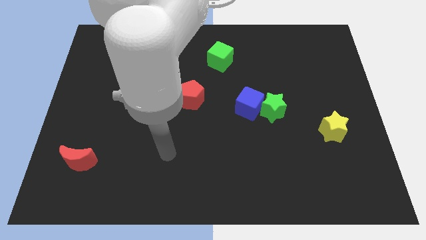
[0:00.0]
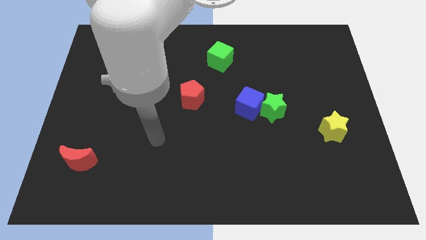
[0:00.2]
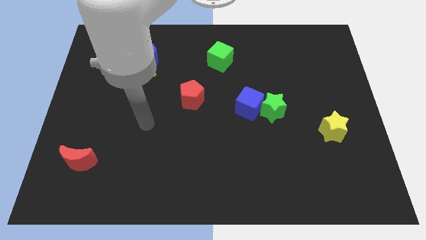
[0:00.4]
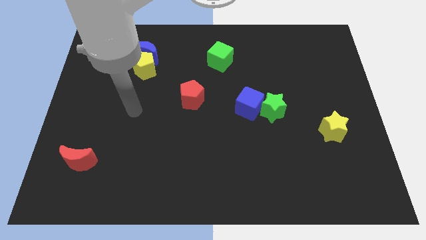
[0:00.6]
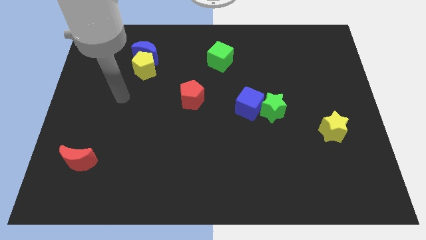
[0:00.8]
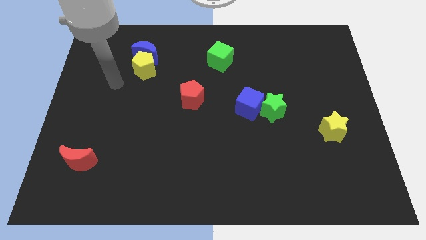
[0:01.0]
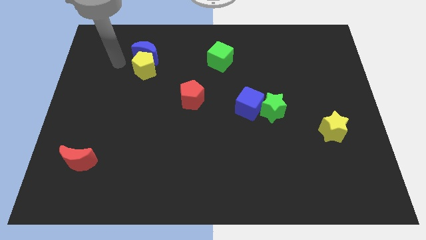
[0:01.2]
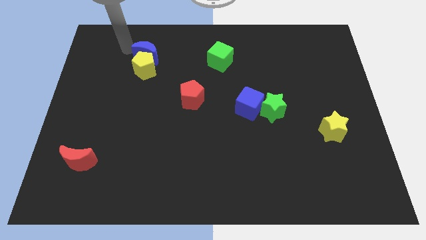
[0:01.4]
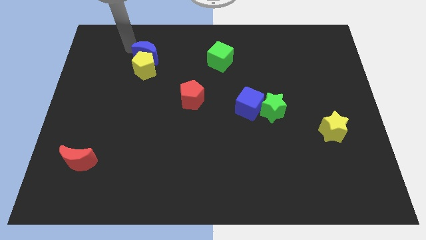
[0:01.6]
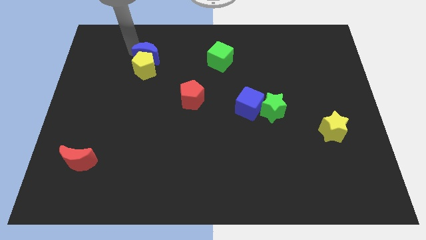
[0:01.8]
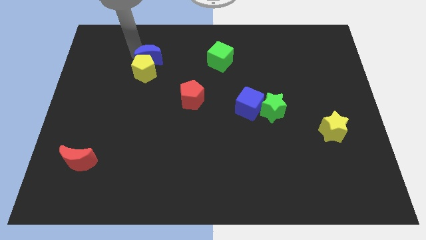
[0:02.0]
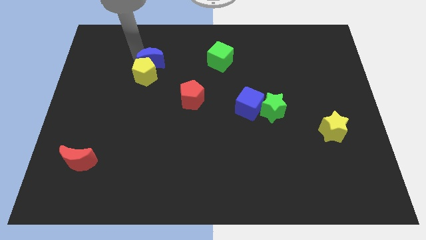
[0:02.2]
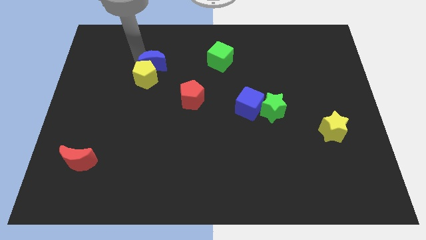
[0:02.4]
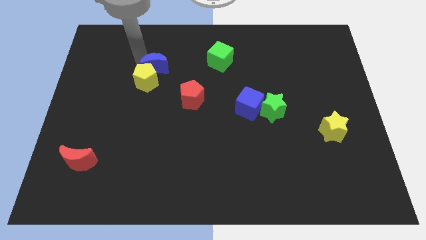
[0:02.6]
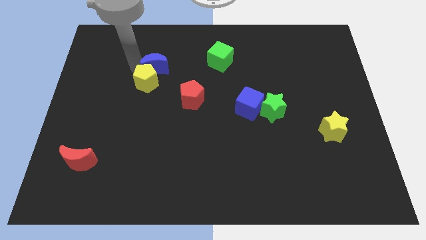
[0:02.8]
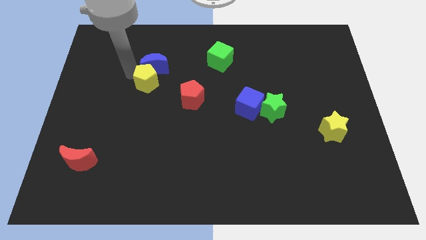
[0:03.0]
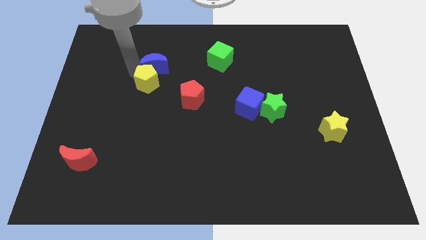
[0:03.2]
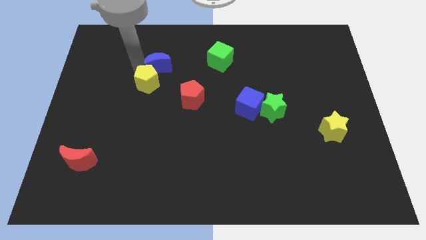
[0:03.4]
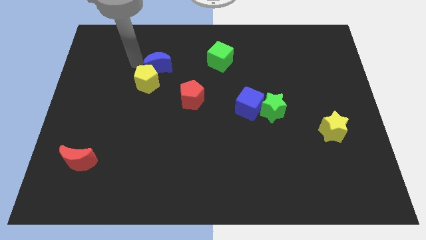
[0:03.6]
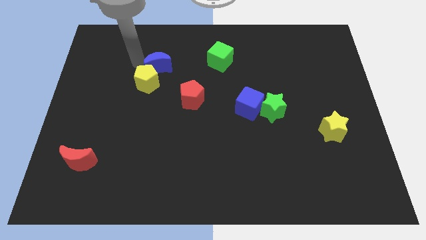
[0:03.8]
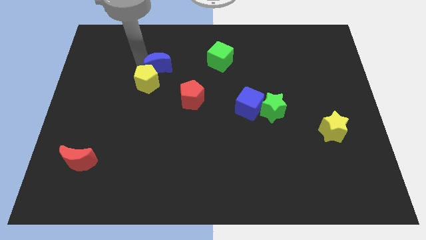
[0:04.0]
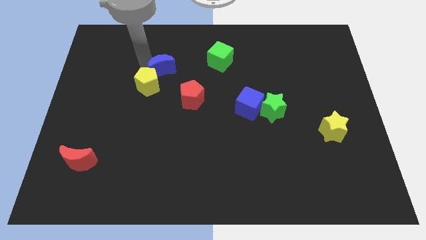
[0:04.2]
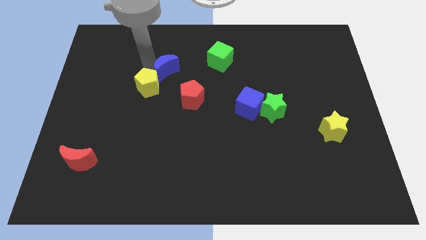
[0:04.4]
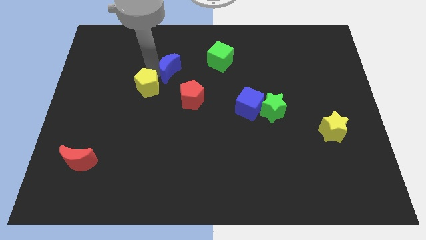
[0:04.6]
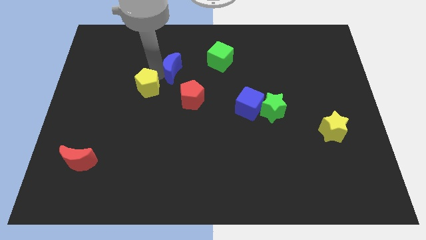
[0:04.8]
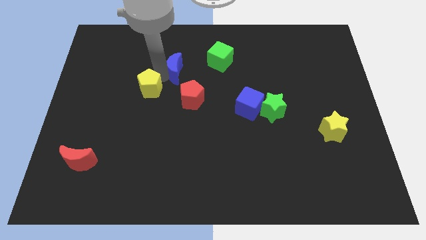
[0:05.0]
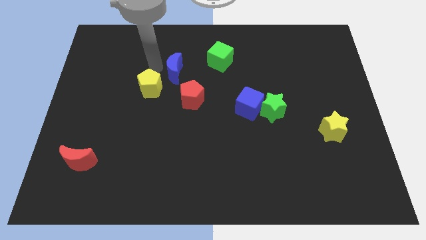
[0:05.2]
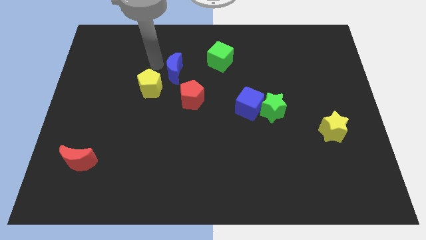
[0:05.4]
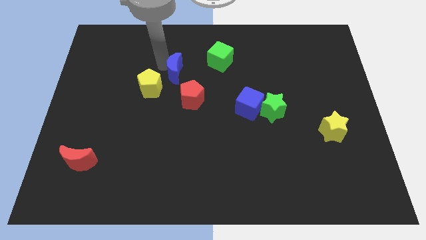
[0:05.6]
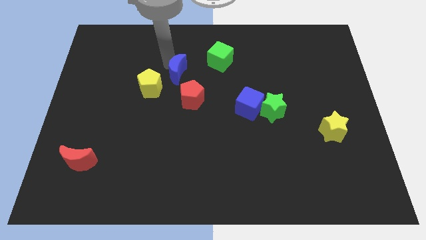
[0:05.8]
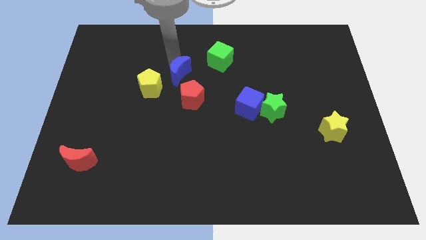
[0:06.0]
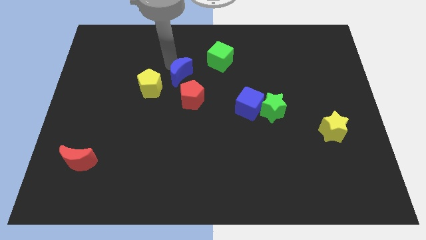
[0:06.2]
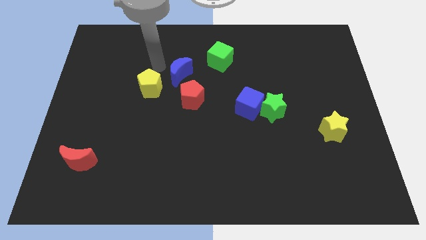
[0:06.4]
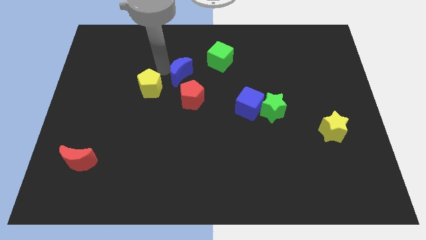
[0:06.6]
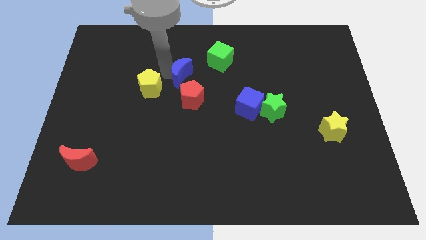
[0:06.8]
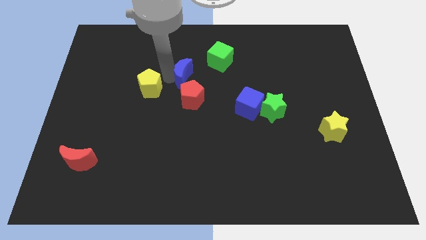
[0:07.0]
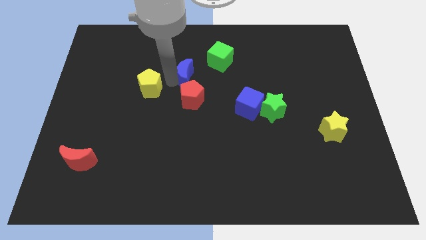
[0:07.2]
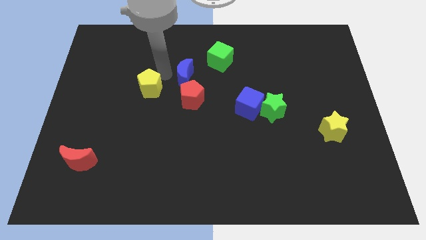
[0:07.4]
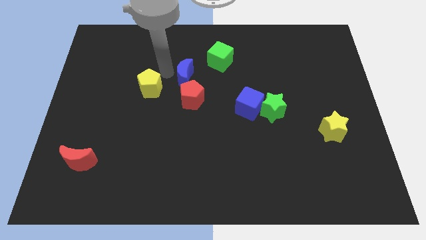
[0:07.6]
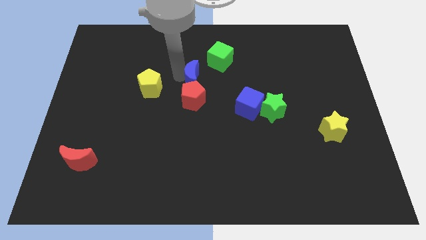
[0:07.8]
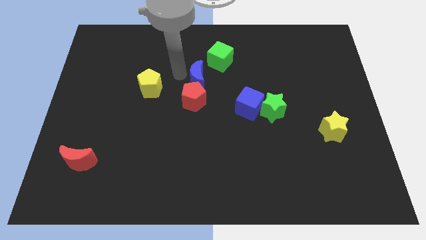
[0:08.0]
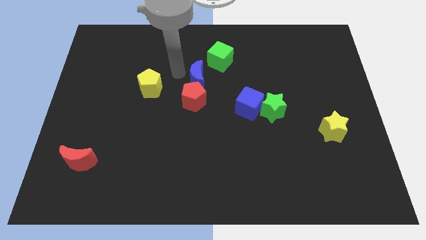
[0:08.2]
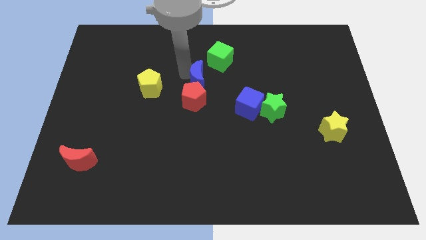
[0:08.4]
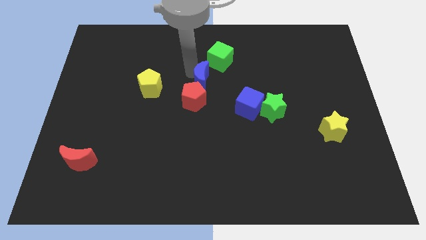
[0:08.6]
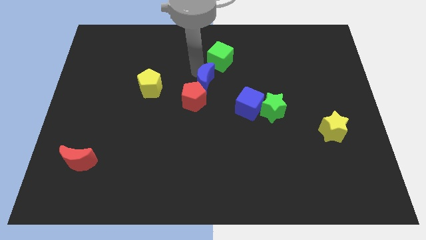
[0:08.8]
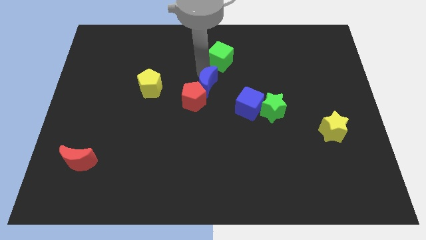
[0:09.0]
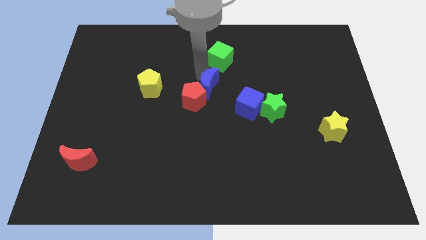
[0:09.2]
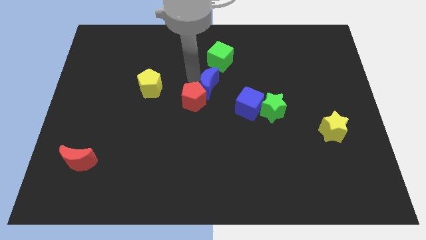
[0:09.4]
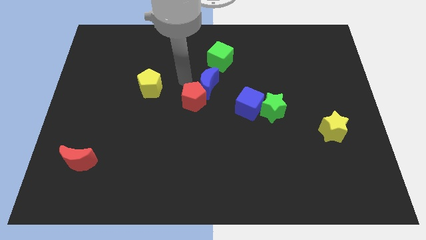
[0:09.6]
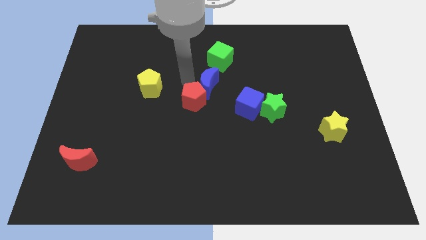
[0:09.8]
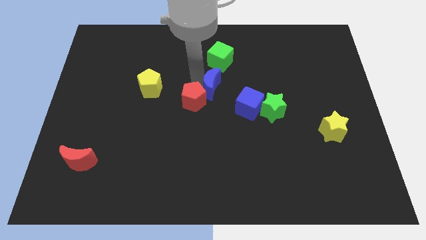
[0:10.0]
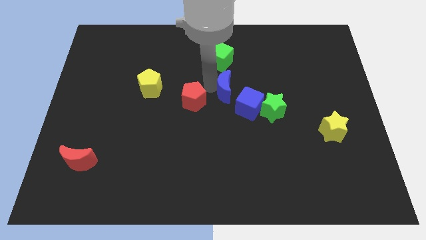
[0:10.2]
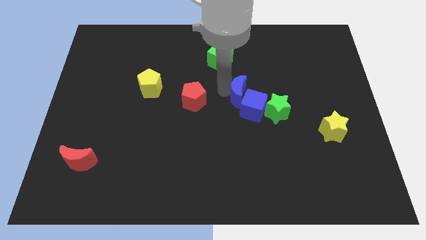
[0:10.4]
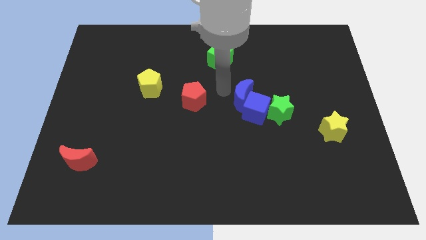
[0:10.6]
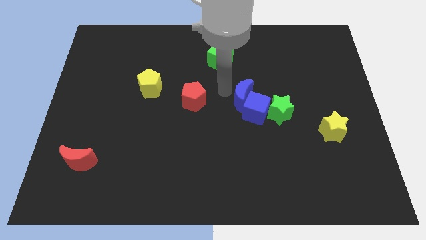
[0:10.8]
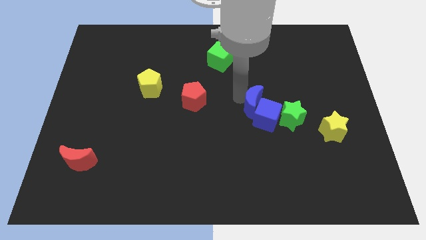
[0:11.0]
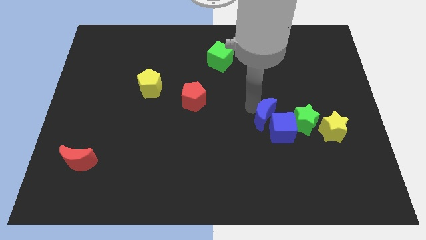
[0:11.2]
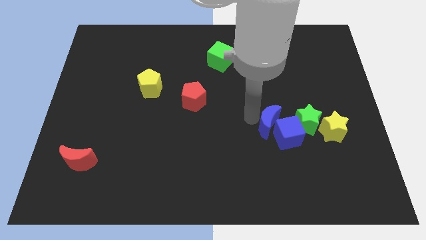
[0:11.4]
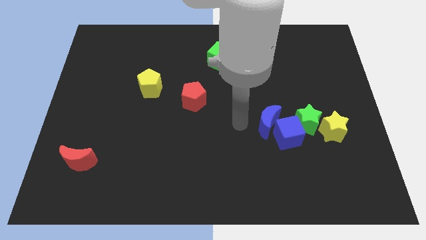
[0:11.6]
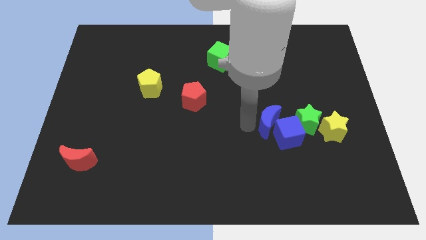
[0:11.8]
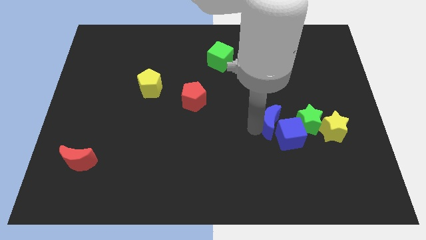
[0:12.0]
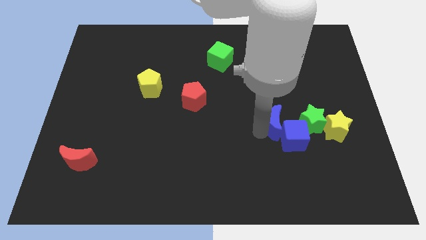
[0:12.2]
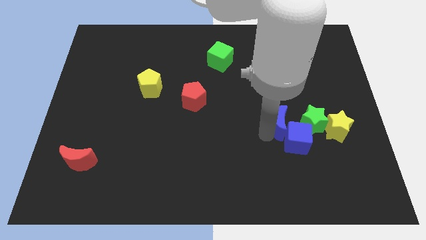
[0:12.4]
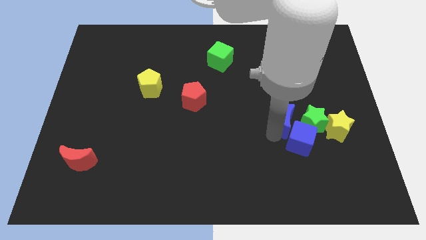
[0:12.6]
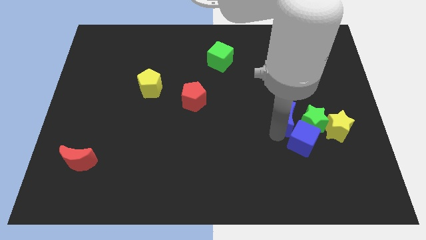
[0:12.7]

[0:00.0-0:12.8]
slide the blue moon next to the green star

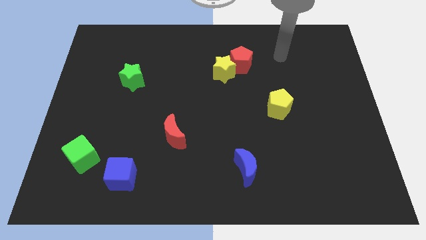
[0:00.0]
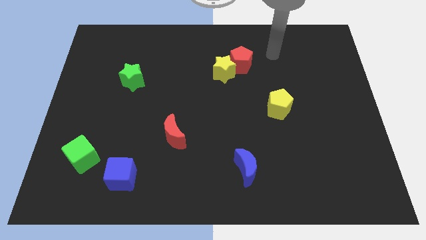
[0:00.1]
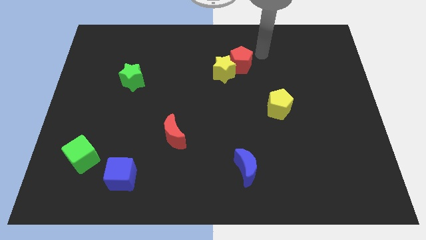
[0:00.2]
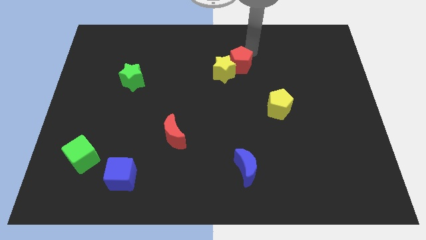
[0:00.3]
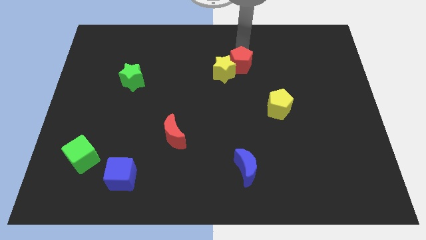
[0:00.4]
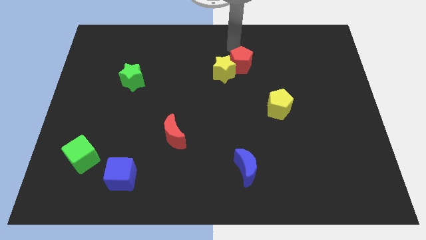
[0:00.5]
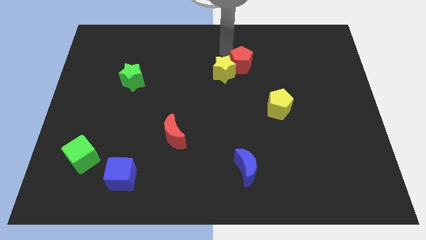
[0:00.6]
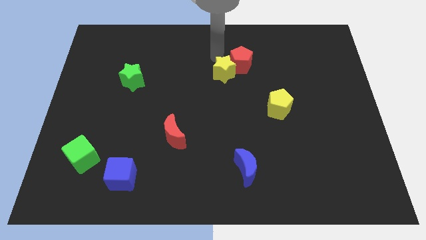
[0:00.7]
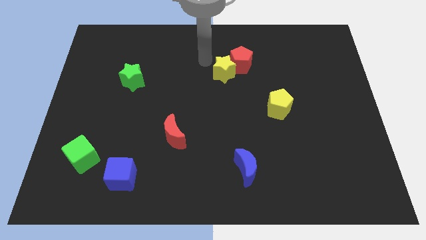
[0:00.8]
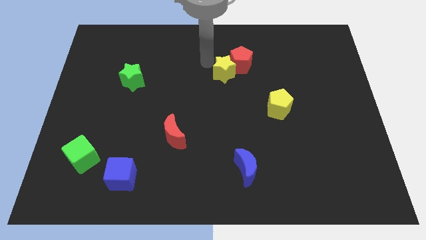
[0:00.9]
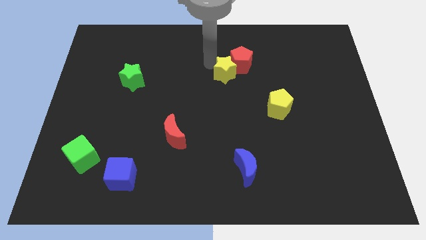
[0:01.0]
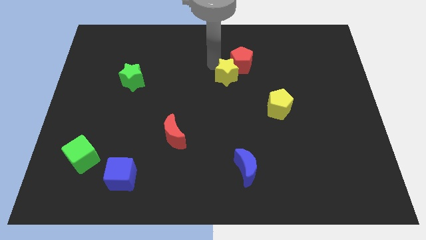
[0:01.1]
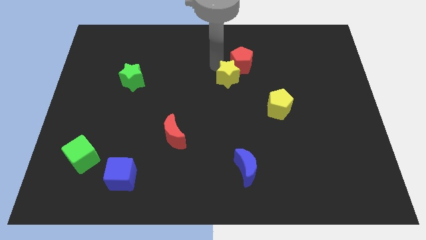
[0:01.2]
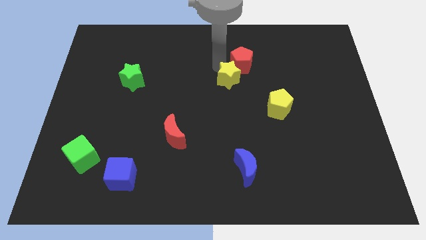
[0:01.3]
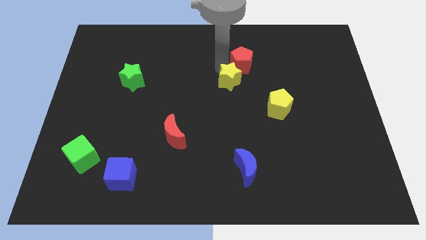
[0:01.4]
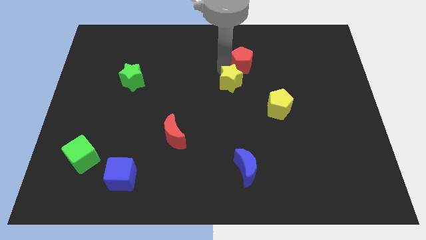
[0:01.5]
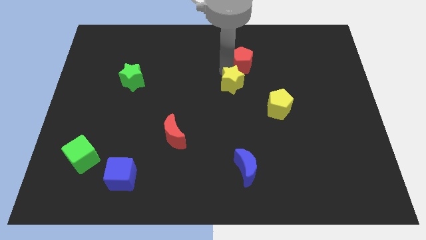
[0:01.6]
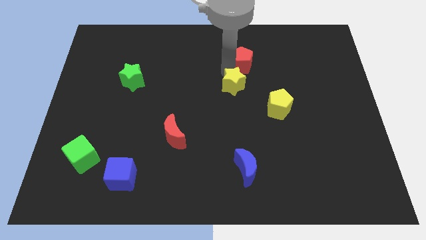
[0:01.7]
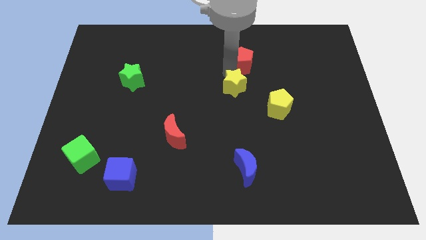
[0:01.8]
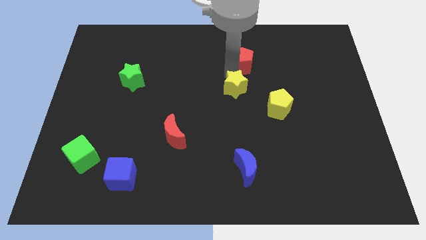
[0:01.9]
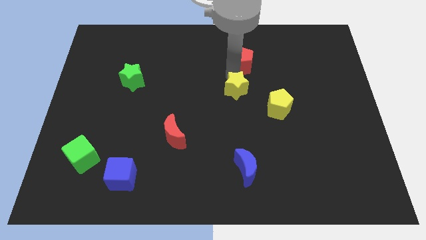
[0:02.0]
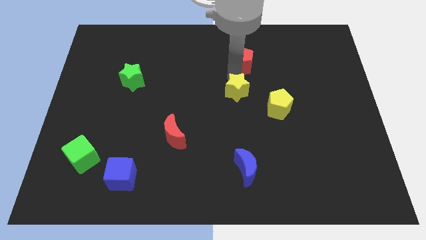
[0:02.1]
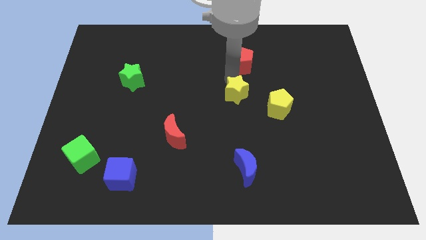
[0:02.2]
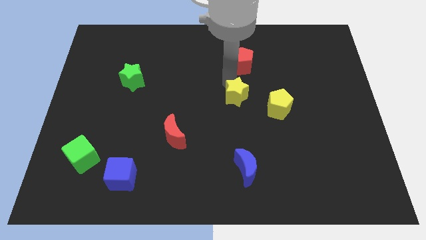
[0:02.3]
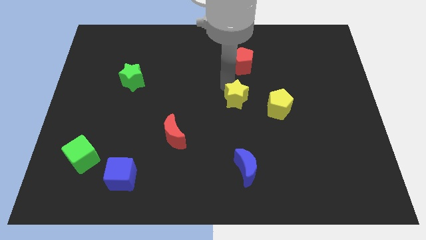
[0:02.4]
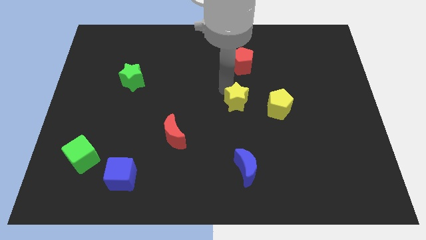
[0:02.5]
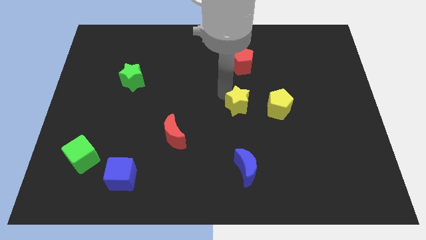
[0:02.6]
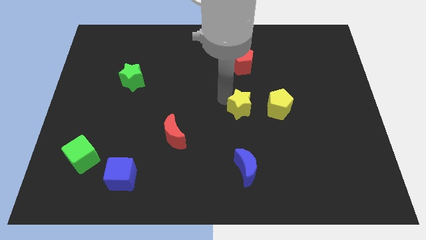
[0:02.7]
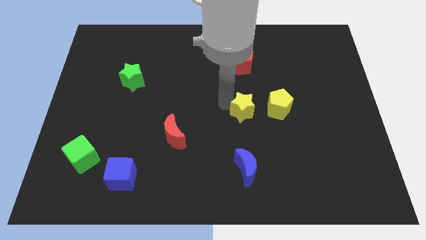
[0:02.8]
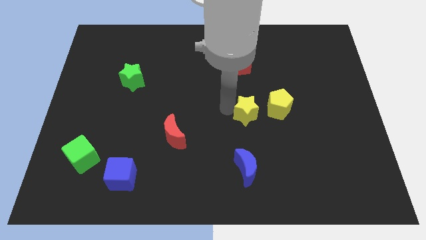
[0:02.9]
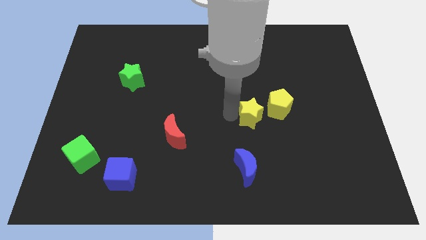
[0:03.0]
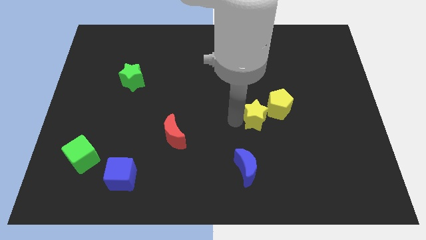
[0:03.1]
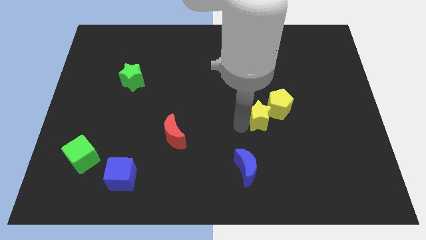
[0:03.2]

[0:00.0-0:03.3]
slide the yellow star next to the yellow pentagon
